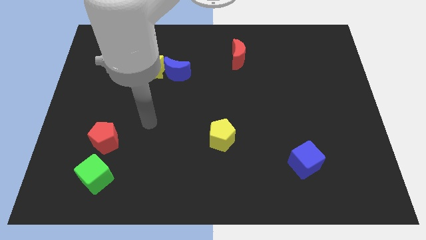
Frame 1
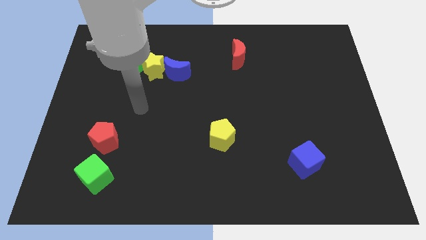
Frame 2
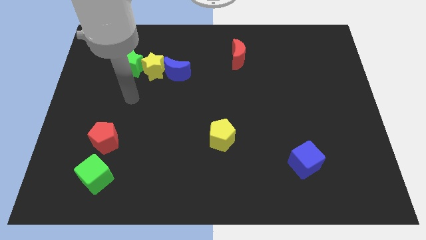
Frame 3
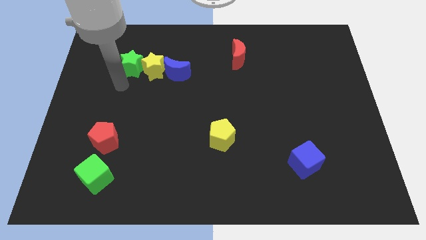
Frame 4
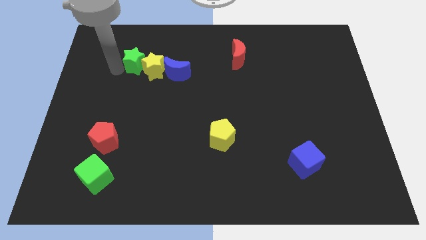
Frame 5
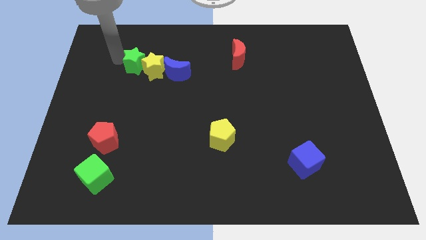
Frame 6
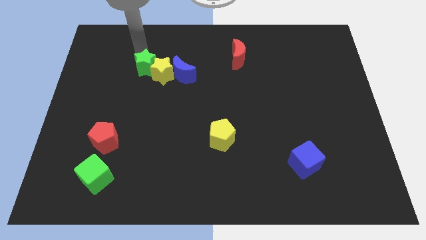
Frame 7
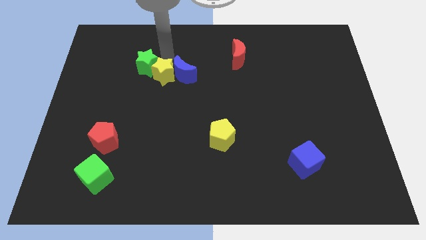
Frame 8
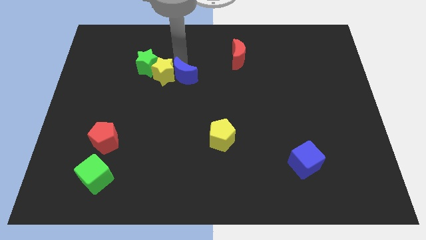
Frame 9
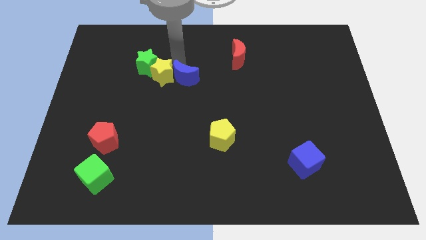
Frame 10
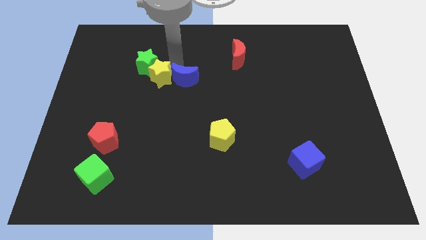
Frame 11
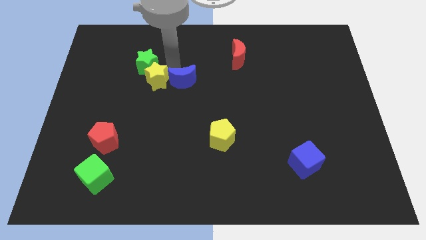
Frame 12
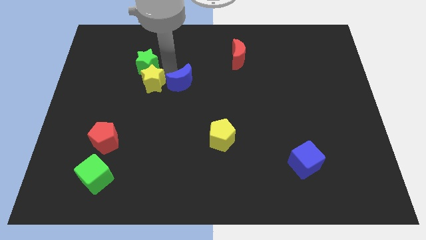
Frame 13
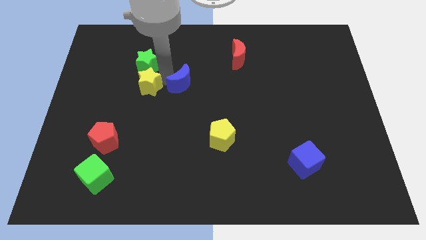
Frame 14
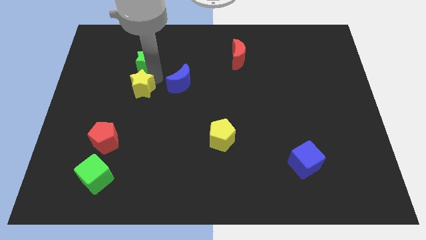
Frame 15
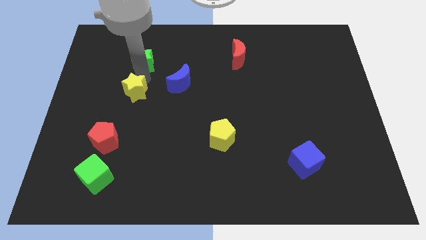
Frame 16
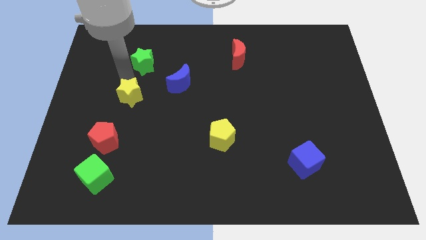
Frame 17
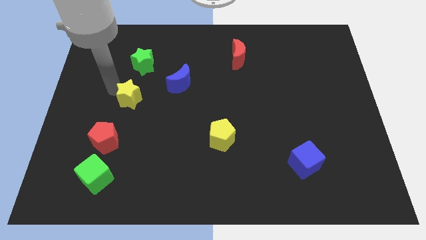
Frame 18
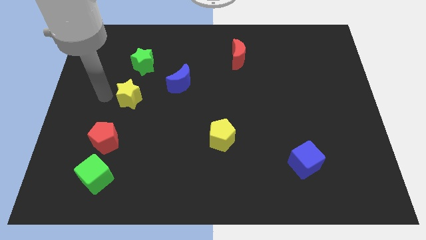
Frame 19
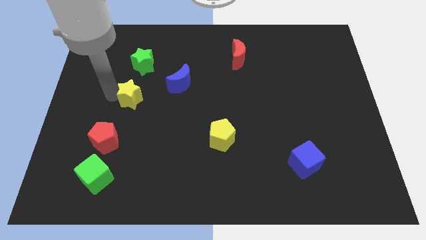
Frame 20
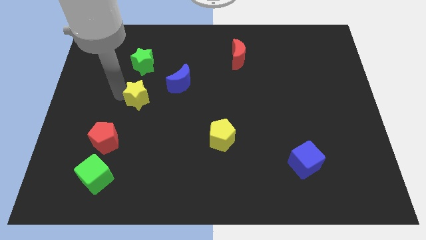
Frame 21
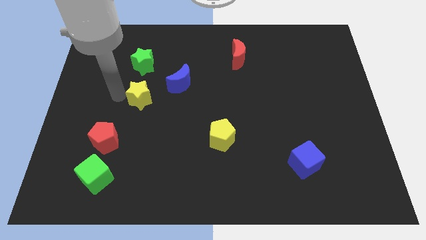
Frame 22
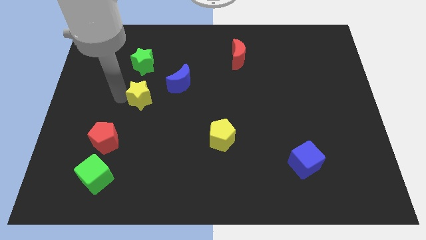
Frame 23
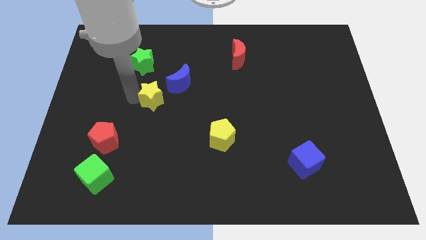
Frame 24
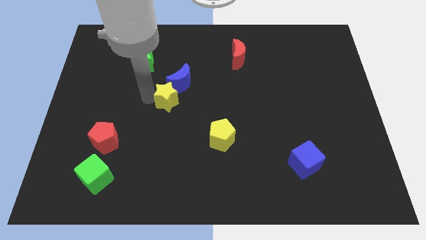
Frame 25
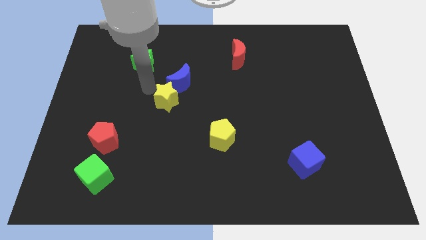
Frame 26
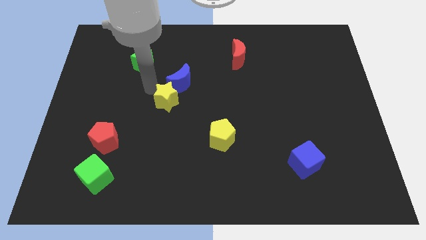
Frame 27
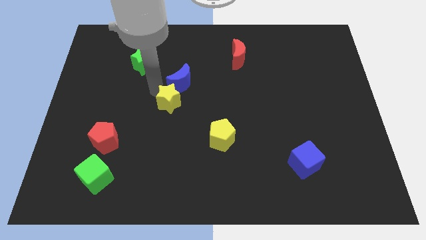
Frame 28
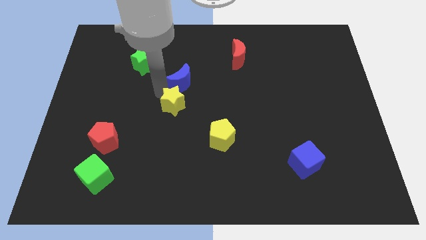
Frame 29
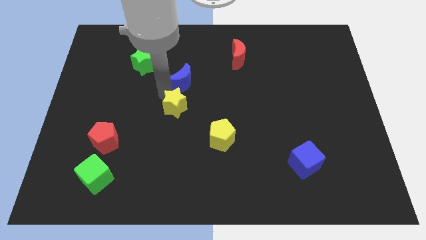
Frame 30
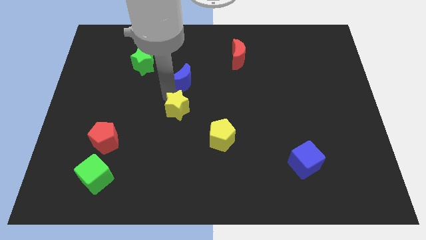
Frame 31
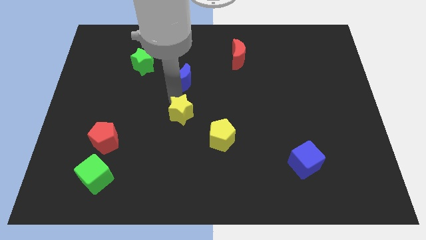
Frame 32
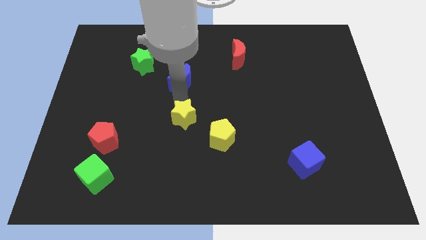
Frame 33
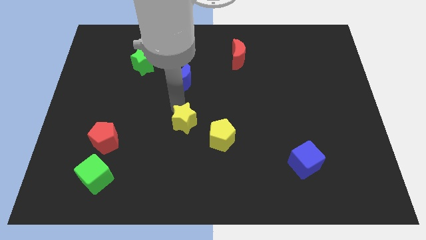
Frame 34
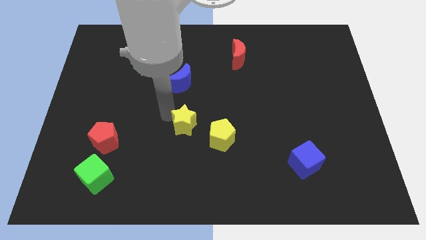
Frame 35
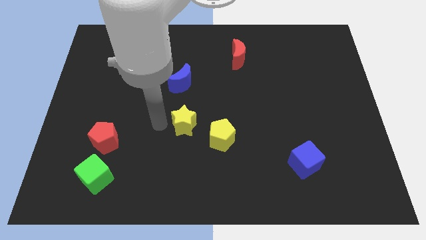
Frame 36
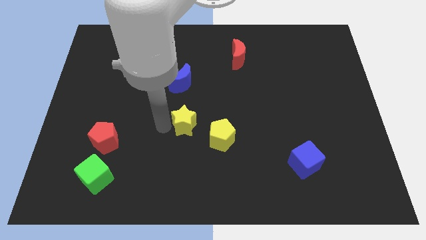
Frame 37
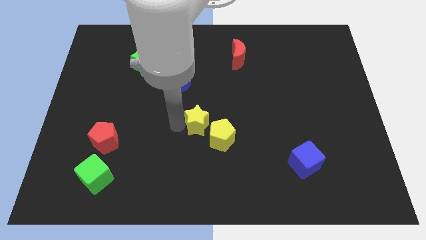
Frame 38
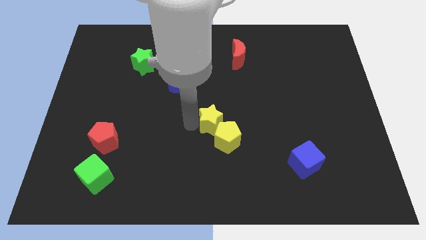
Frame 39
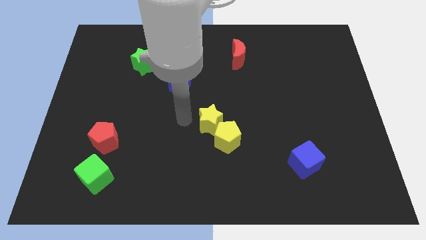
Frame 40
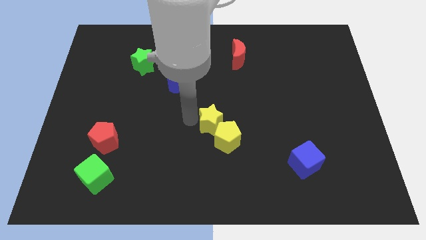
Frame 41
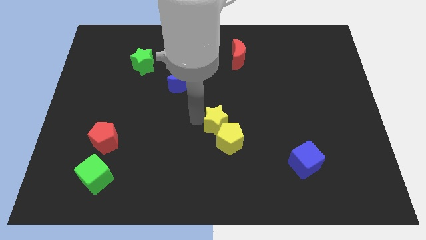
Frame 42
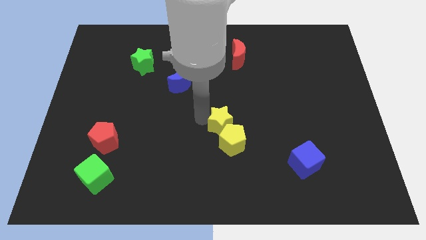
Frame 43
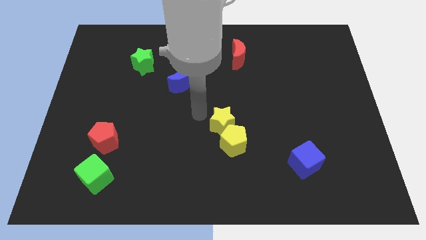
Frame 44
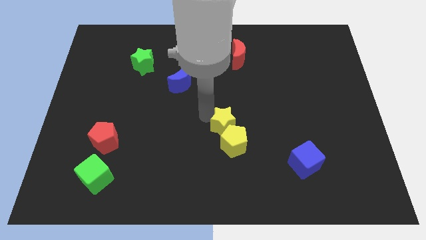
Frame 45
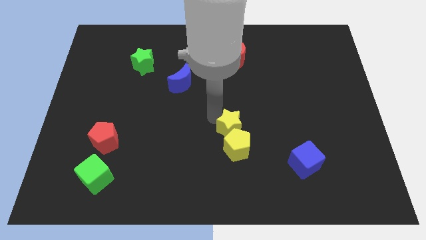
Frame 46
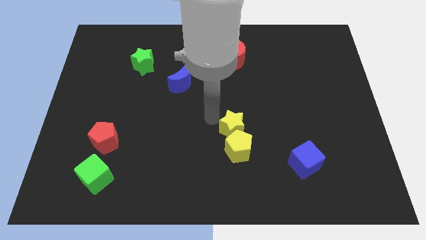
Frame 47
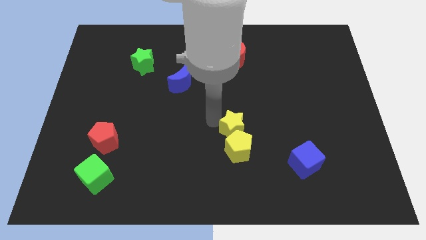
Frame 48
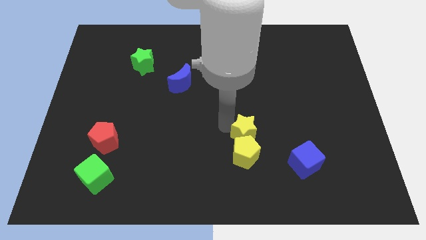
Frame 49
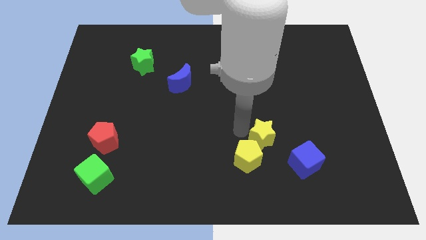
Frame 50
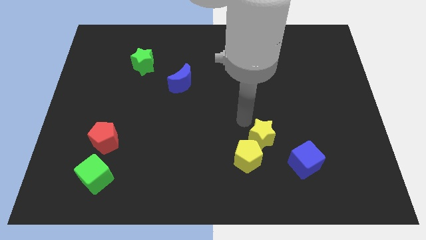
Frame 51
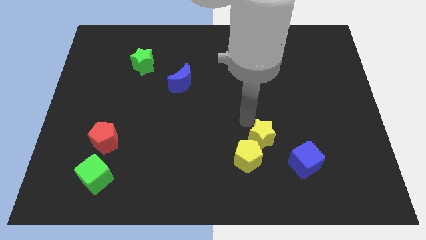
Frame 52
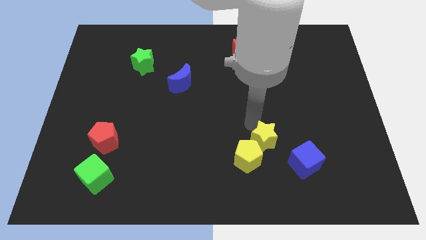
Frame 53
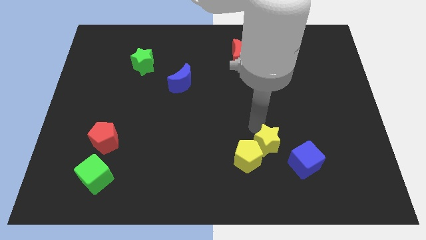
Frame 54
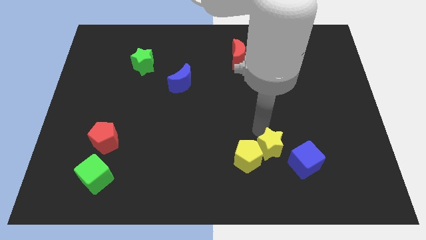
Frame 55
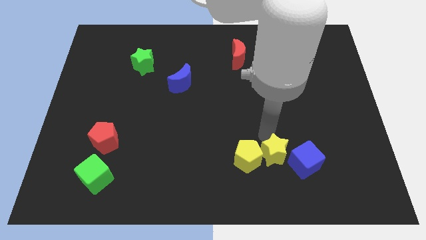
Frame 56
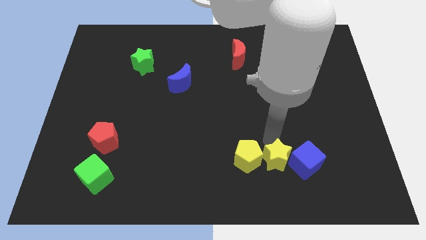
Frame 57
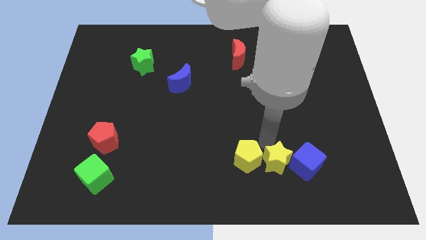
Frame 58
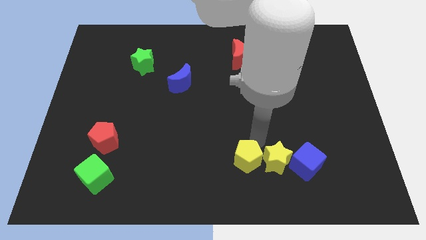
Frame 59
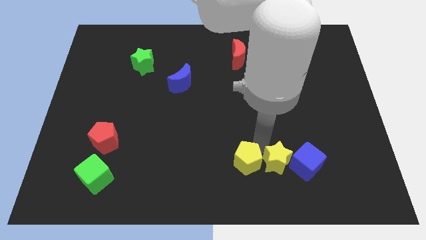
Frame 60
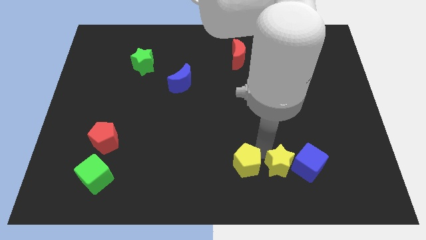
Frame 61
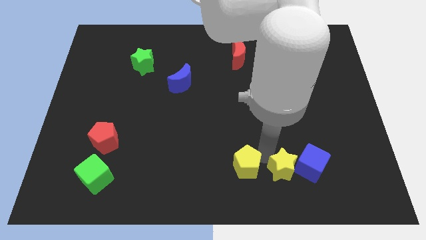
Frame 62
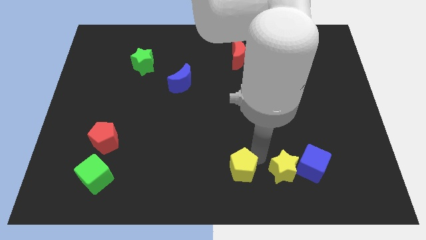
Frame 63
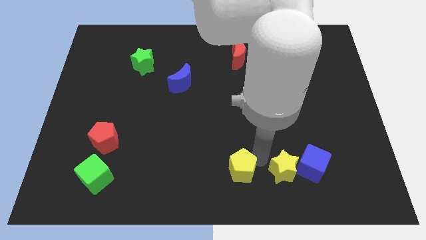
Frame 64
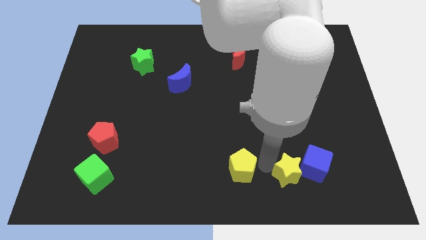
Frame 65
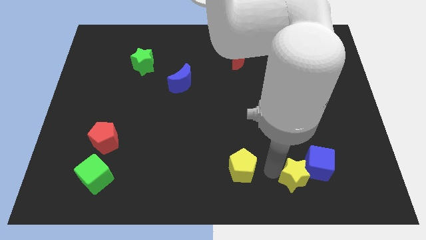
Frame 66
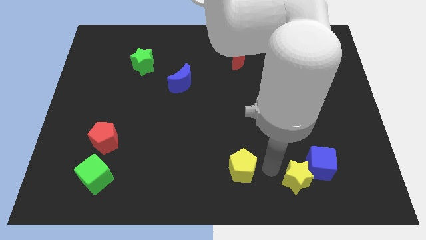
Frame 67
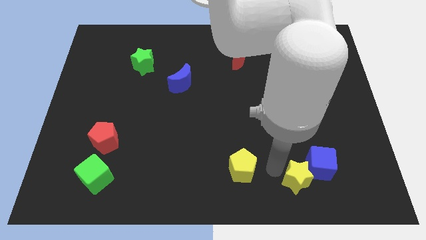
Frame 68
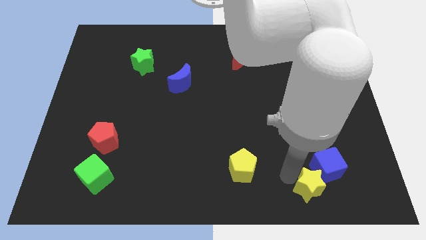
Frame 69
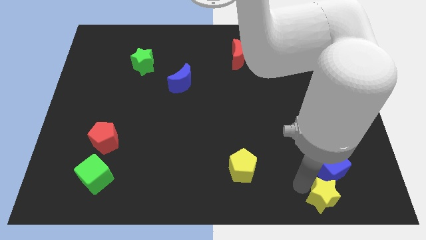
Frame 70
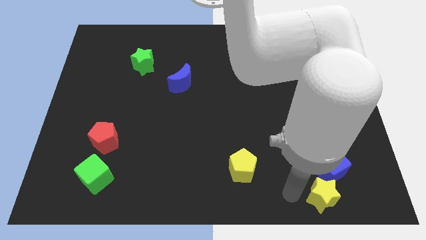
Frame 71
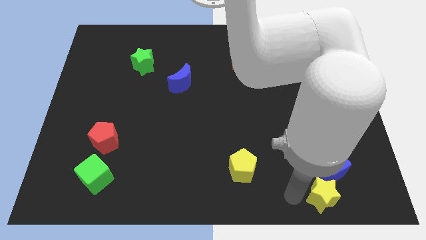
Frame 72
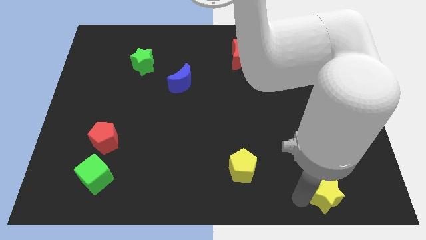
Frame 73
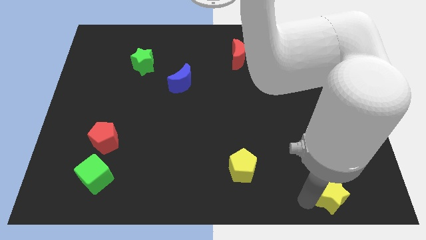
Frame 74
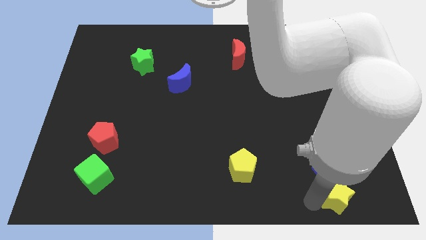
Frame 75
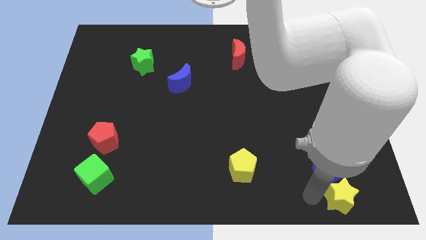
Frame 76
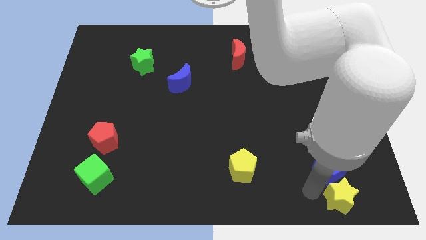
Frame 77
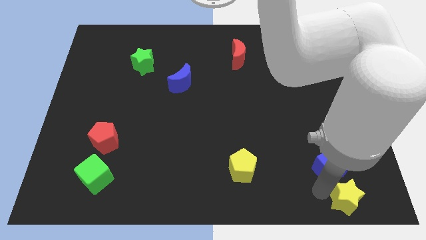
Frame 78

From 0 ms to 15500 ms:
put the yellow star to the lower right corner

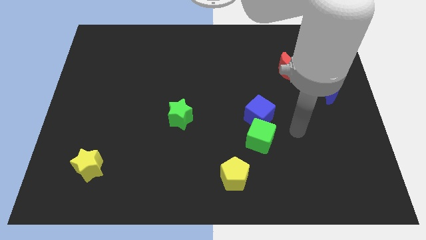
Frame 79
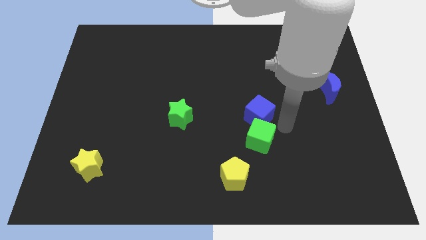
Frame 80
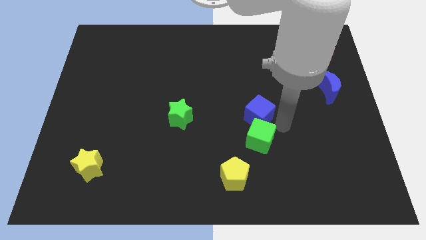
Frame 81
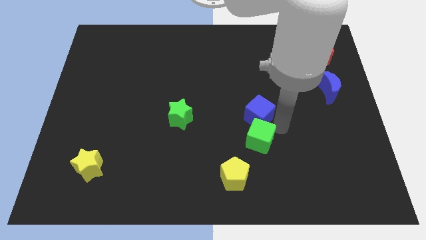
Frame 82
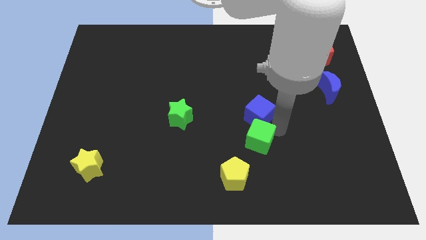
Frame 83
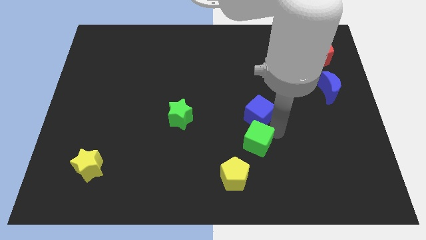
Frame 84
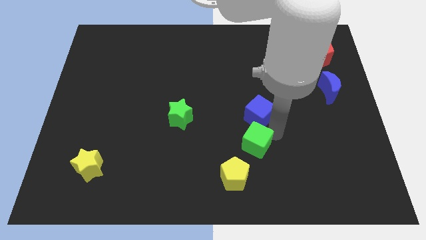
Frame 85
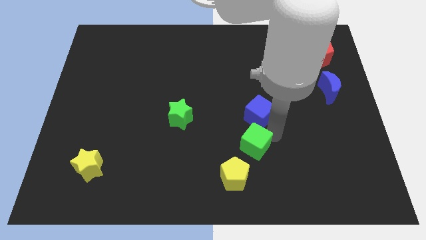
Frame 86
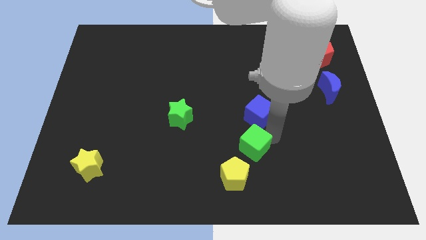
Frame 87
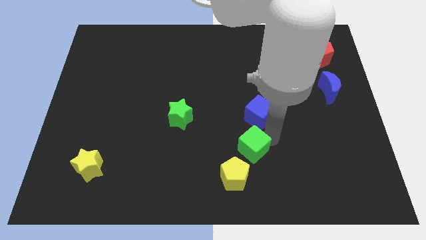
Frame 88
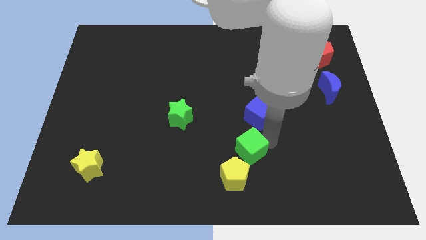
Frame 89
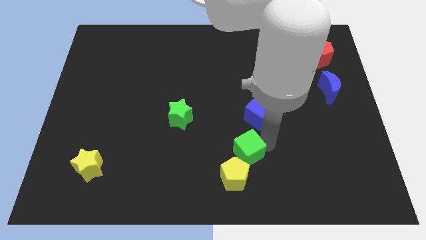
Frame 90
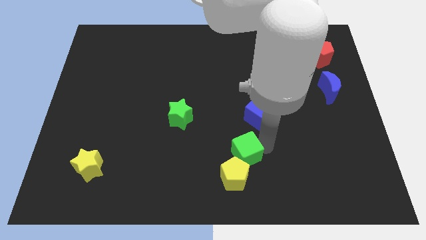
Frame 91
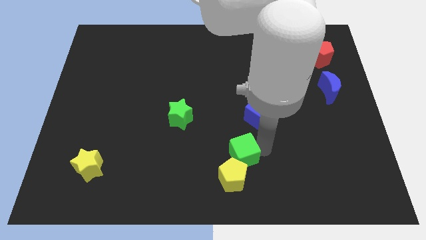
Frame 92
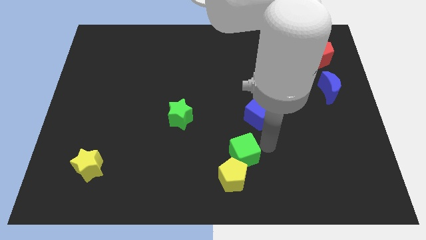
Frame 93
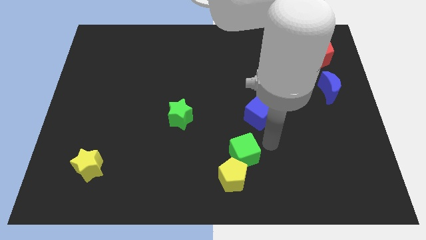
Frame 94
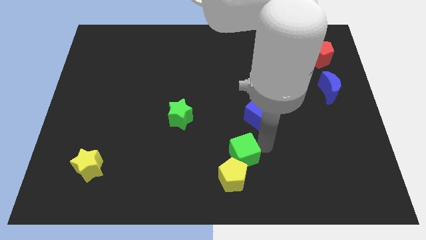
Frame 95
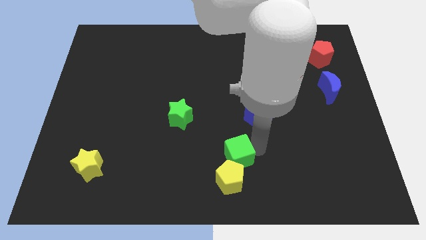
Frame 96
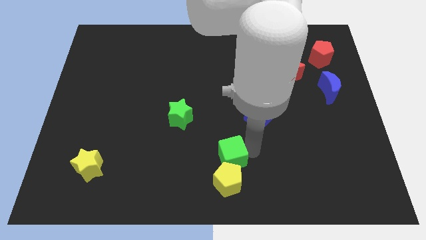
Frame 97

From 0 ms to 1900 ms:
push the green cube to the bottom side
